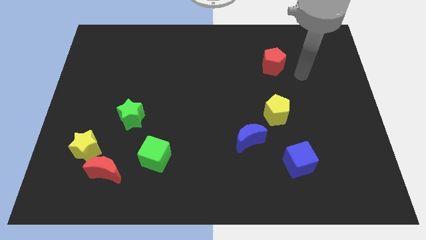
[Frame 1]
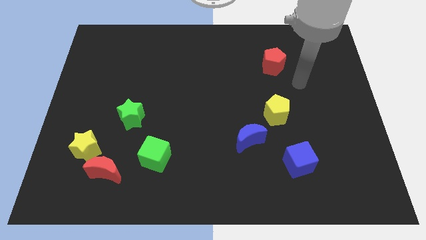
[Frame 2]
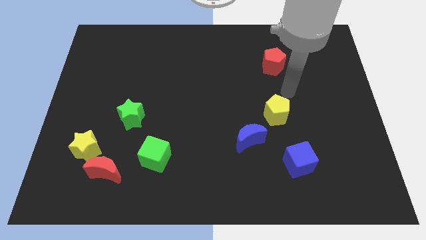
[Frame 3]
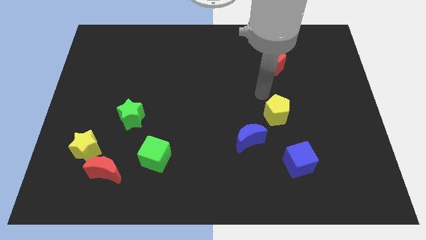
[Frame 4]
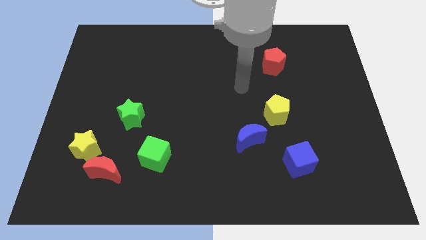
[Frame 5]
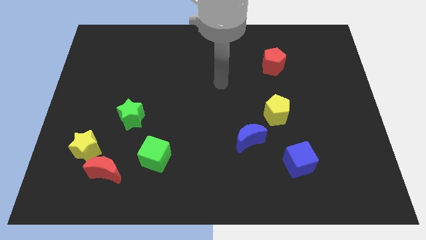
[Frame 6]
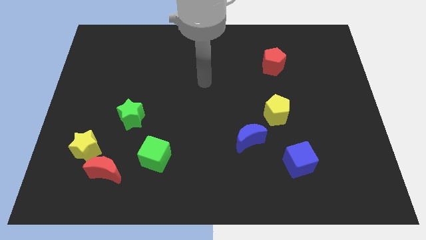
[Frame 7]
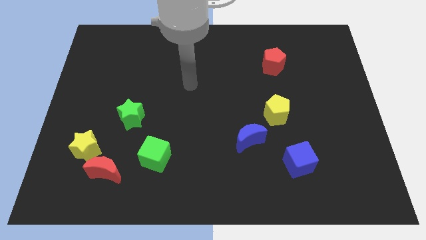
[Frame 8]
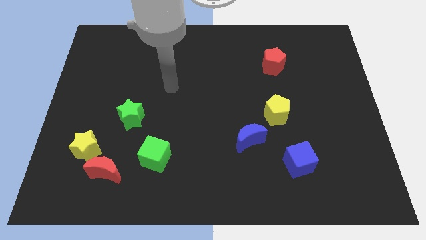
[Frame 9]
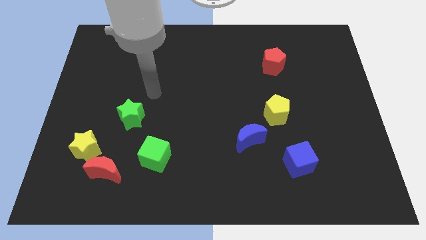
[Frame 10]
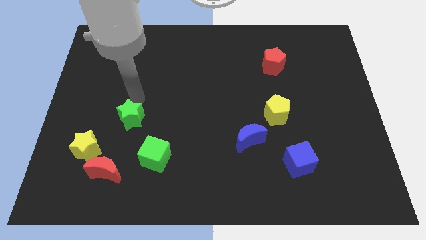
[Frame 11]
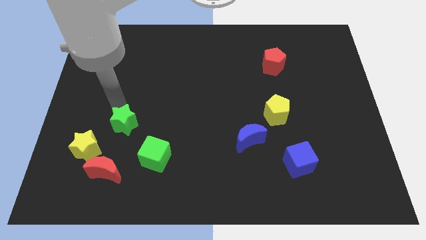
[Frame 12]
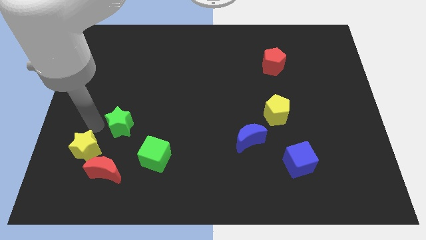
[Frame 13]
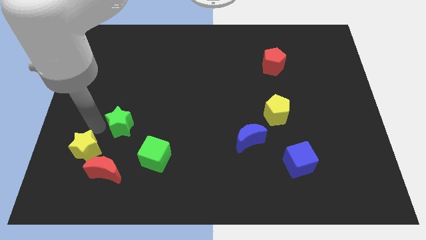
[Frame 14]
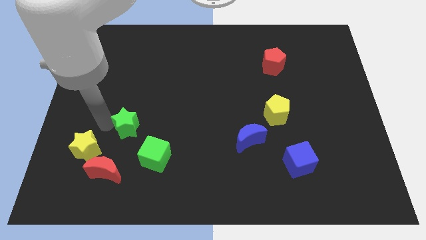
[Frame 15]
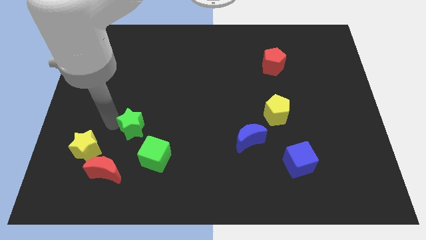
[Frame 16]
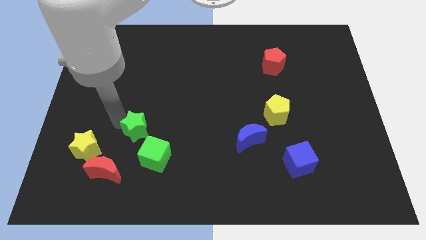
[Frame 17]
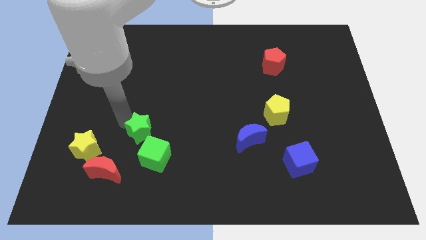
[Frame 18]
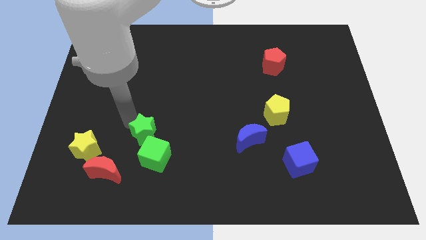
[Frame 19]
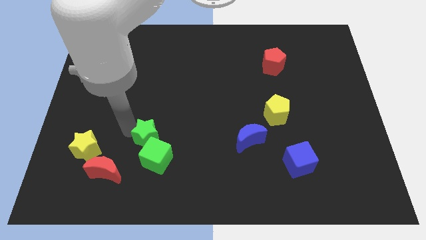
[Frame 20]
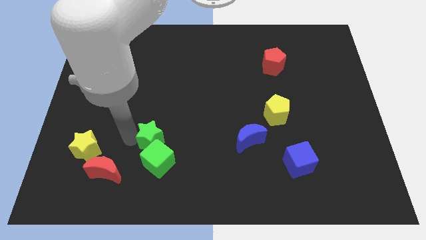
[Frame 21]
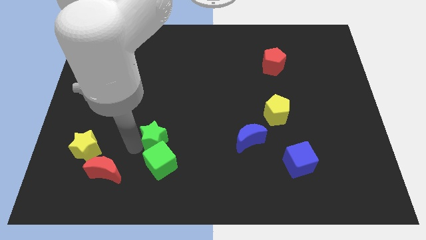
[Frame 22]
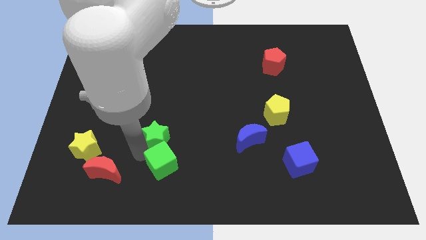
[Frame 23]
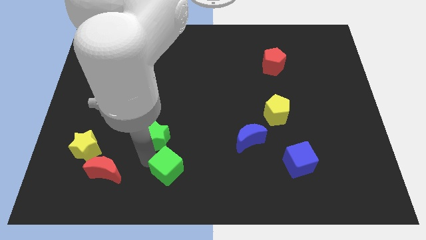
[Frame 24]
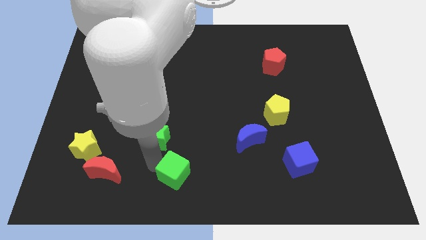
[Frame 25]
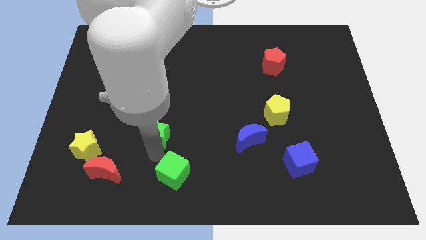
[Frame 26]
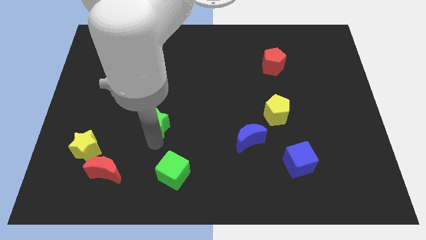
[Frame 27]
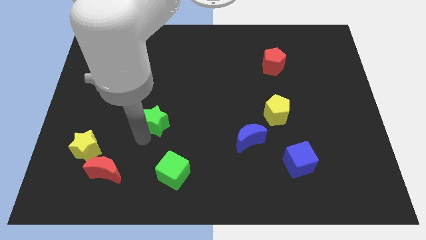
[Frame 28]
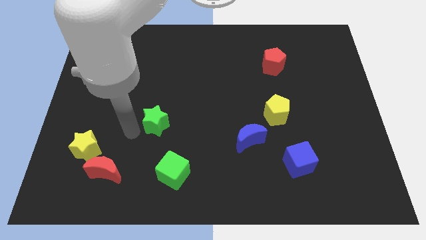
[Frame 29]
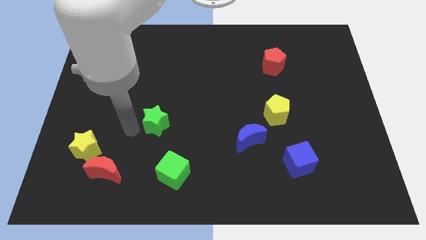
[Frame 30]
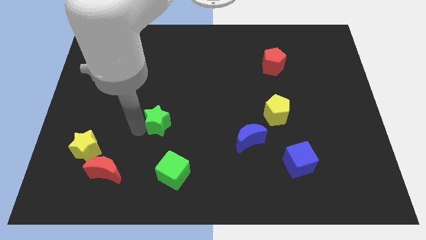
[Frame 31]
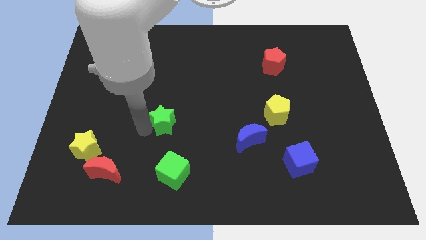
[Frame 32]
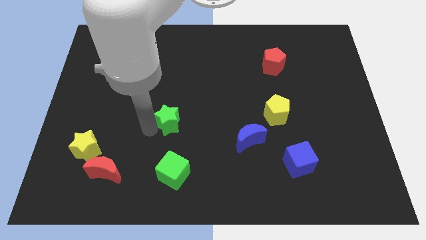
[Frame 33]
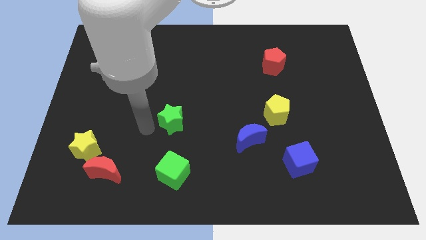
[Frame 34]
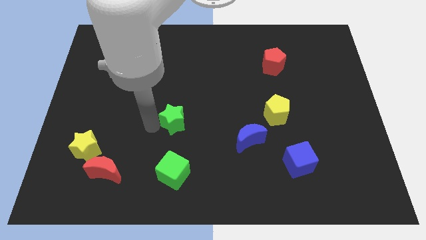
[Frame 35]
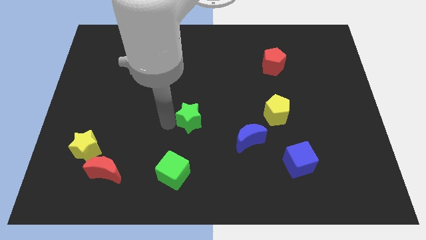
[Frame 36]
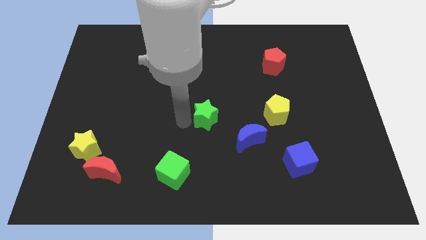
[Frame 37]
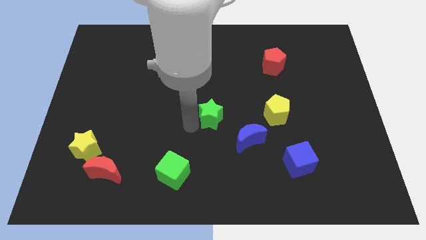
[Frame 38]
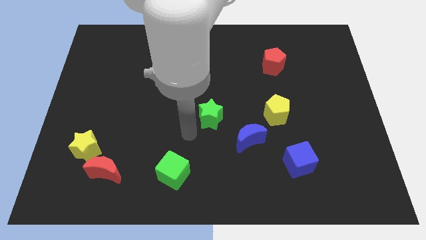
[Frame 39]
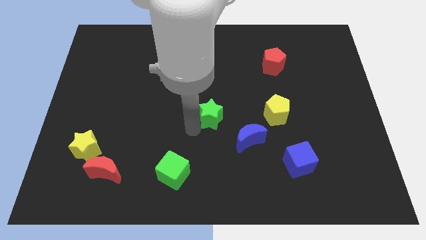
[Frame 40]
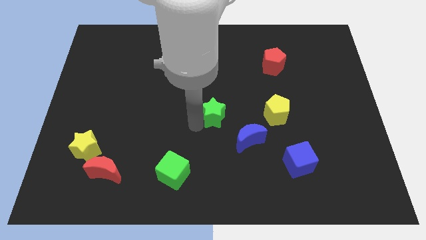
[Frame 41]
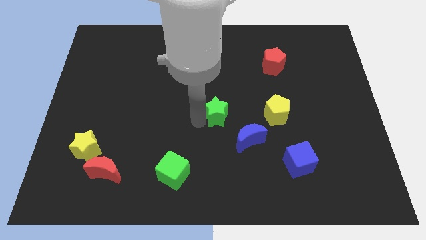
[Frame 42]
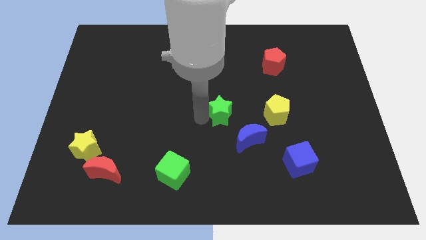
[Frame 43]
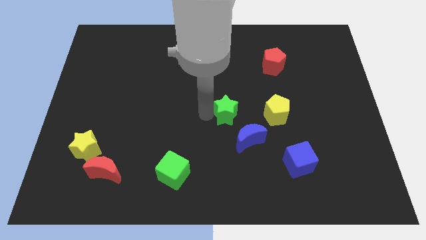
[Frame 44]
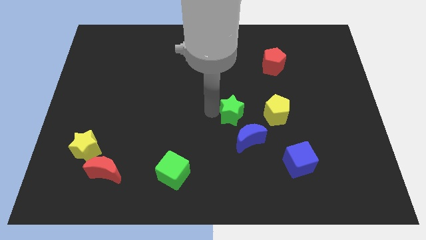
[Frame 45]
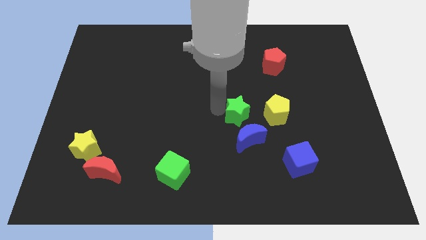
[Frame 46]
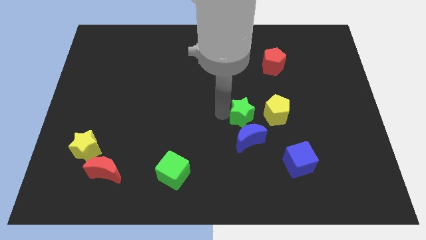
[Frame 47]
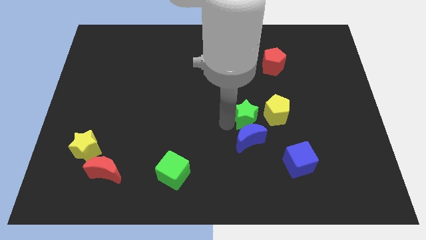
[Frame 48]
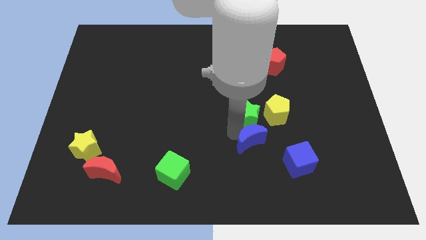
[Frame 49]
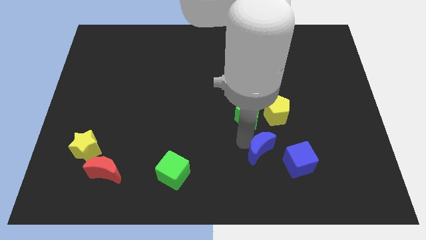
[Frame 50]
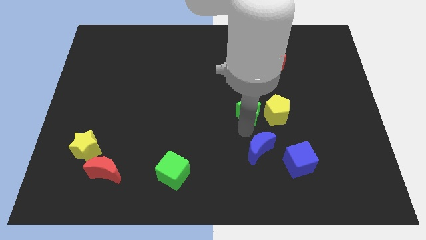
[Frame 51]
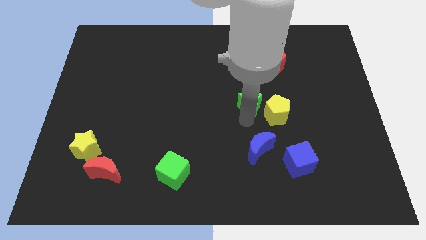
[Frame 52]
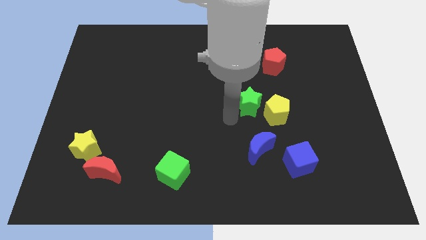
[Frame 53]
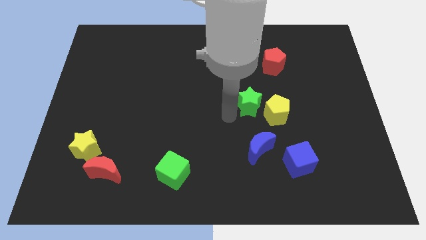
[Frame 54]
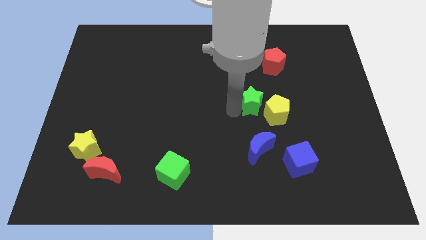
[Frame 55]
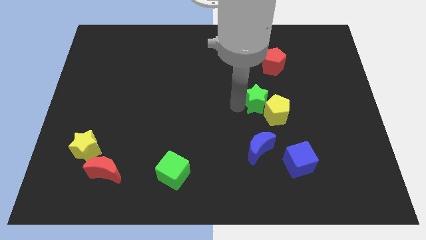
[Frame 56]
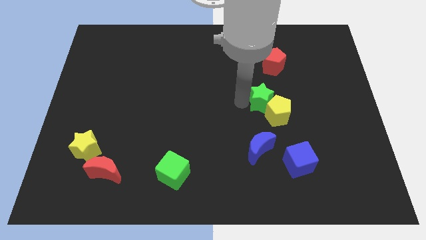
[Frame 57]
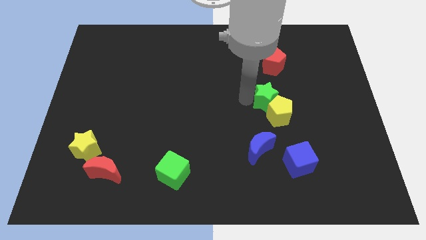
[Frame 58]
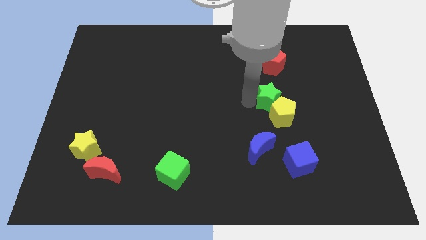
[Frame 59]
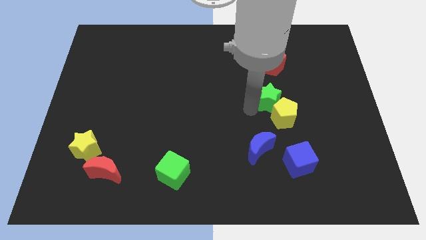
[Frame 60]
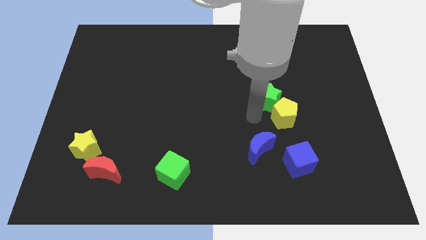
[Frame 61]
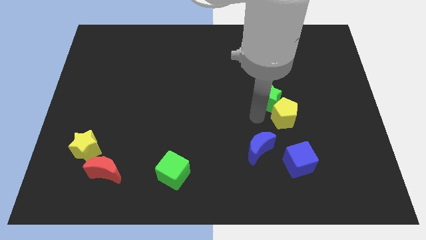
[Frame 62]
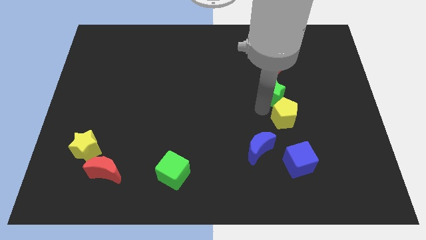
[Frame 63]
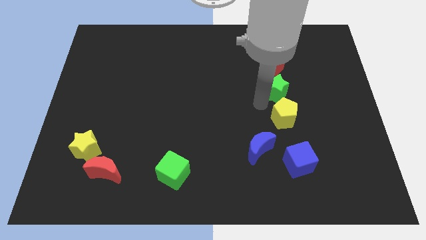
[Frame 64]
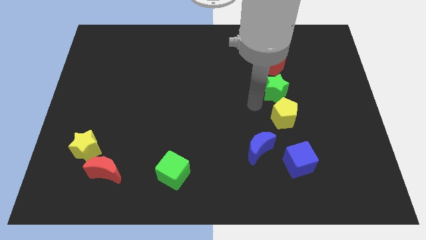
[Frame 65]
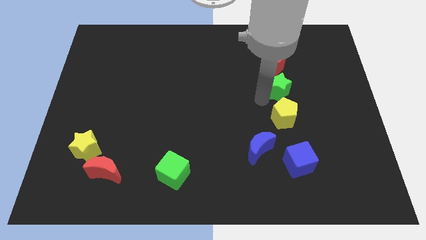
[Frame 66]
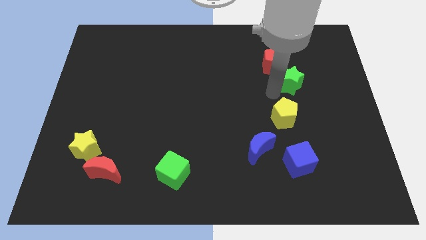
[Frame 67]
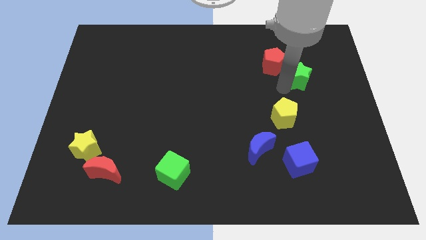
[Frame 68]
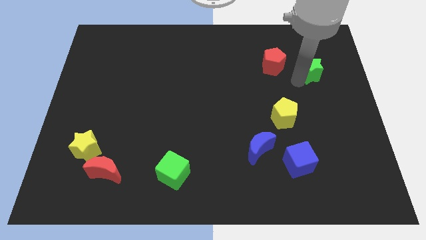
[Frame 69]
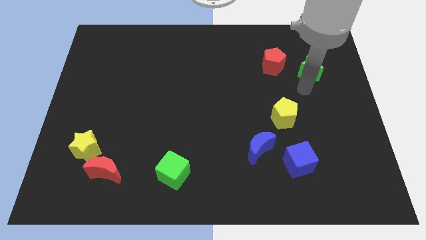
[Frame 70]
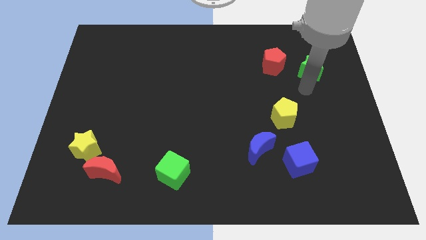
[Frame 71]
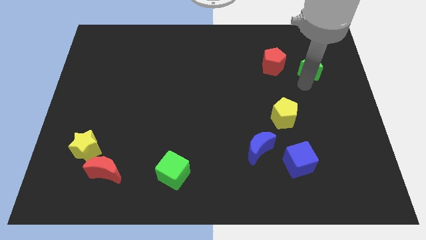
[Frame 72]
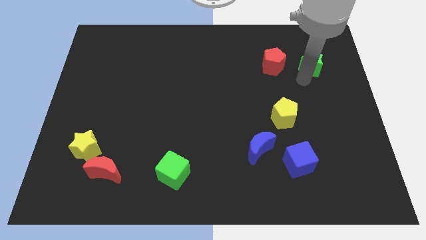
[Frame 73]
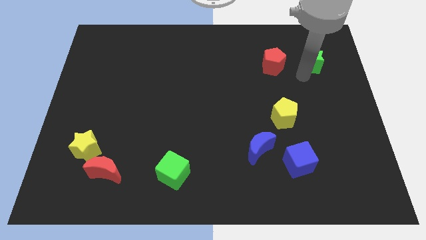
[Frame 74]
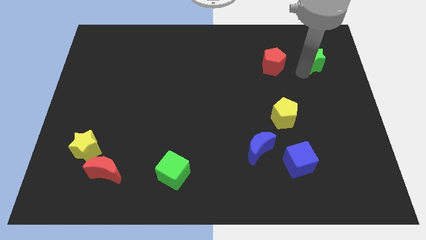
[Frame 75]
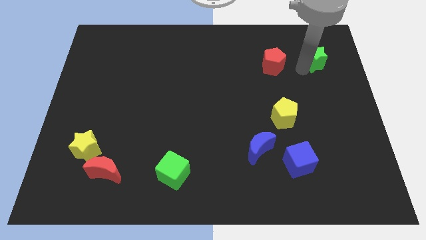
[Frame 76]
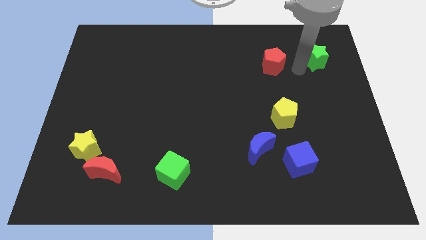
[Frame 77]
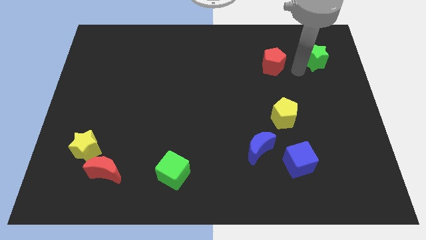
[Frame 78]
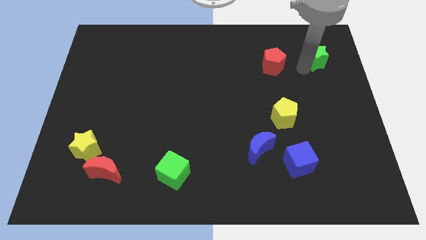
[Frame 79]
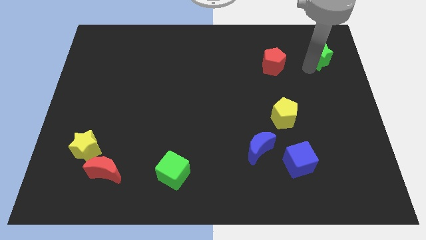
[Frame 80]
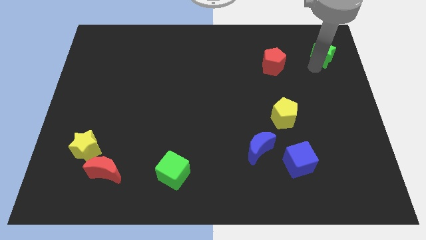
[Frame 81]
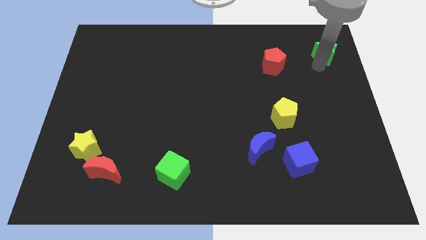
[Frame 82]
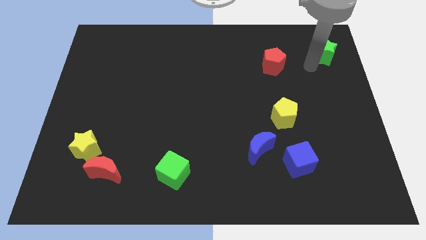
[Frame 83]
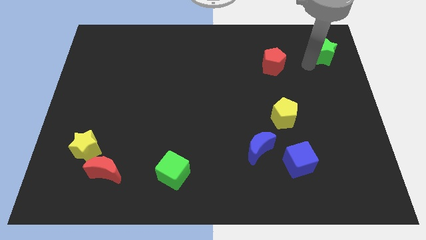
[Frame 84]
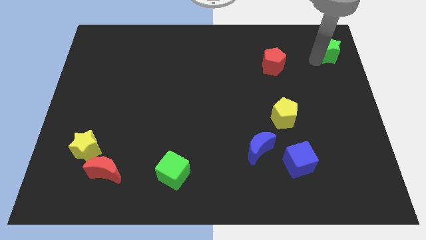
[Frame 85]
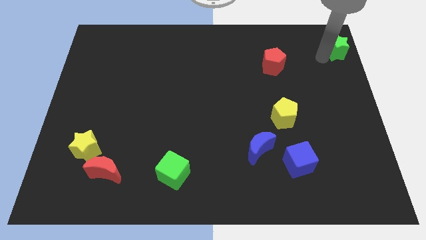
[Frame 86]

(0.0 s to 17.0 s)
put the green star to the top right
